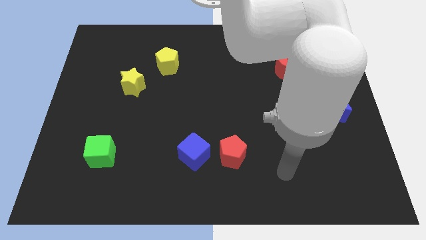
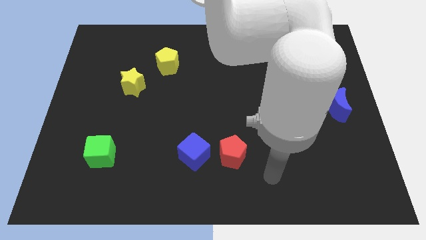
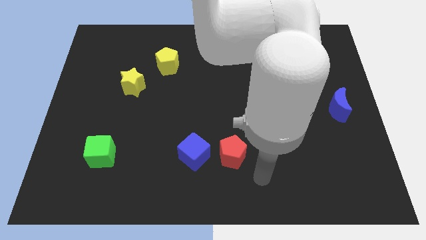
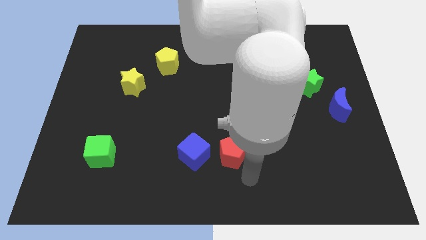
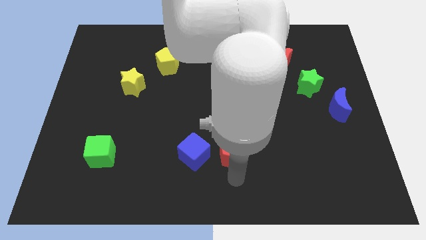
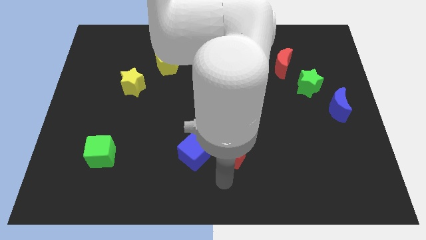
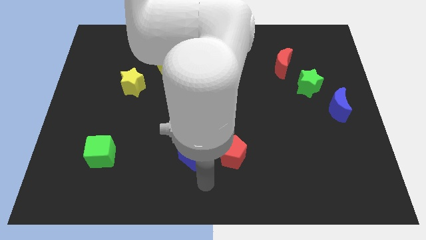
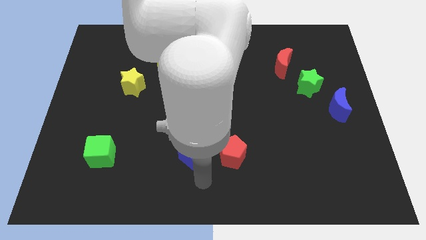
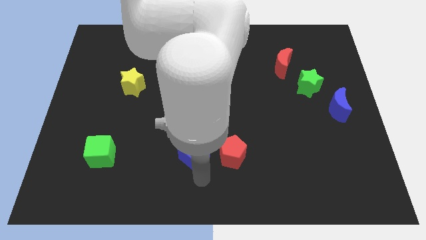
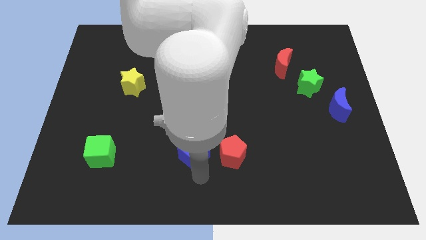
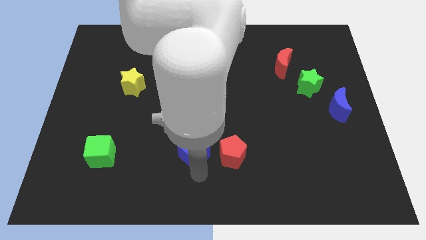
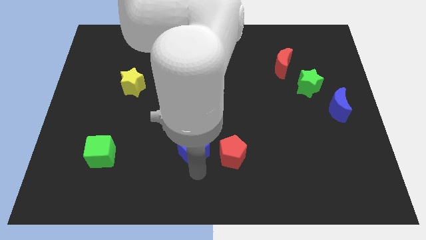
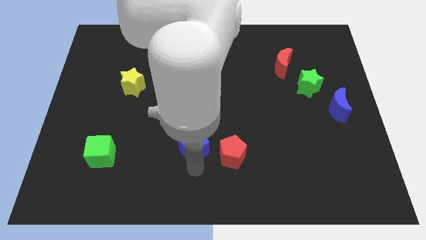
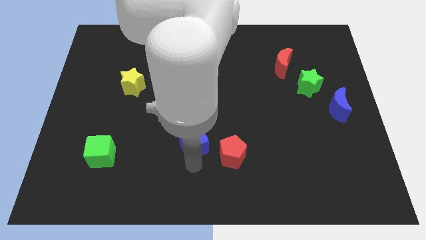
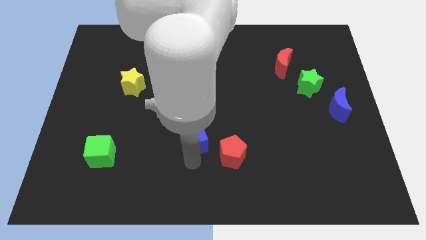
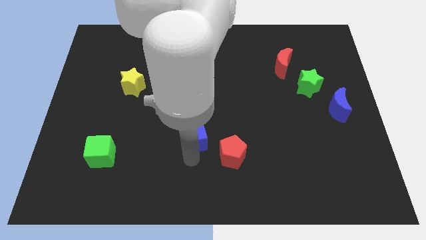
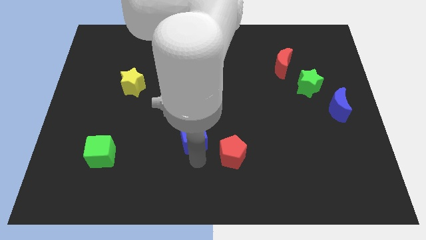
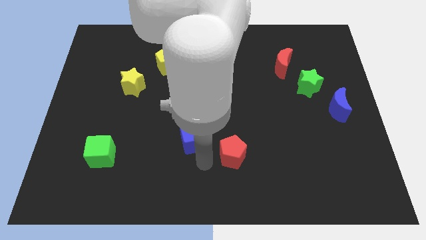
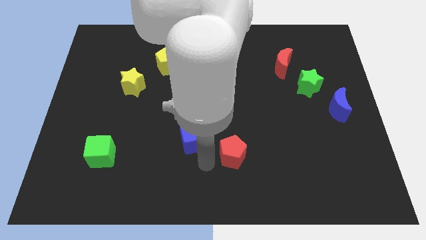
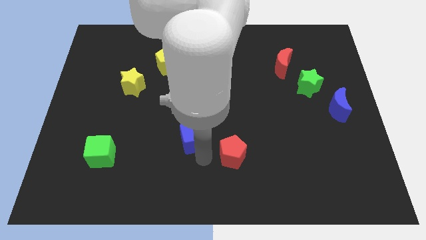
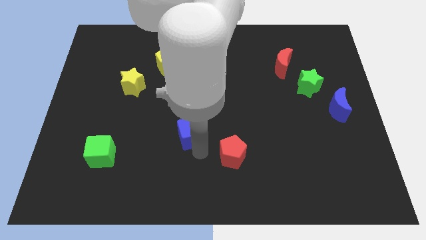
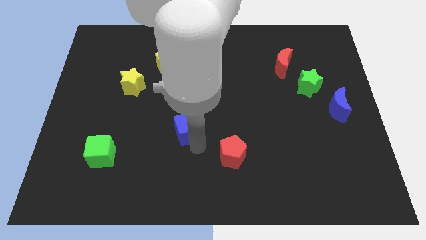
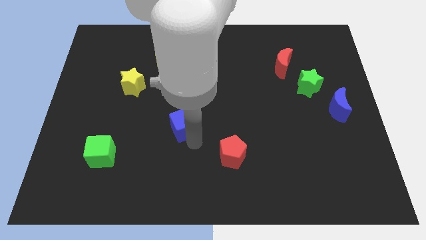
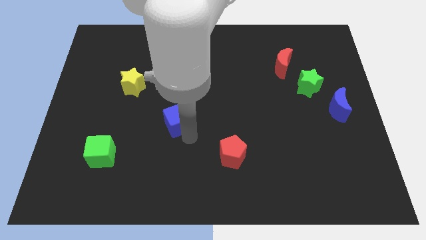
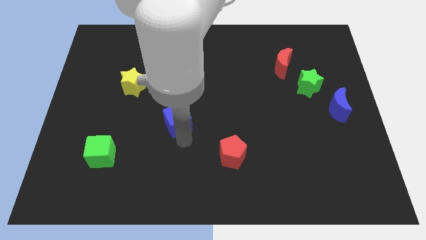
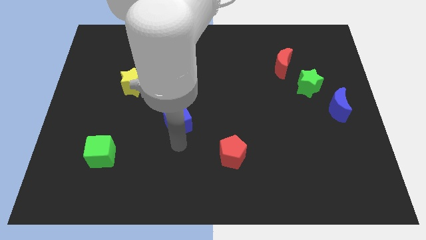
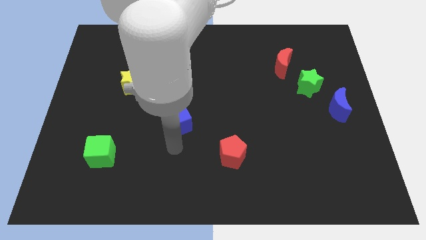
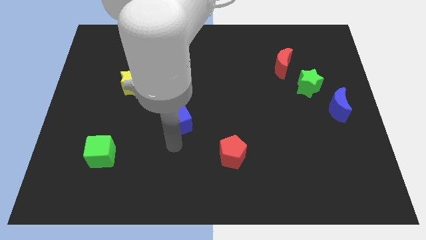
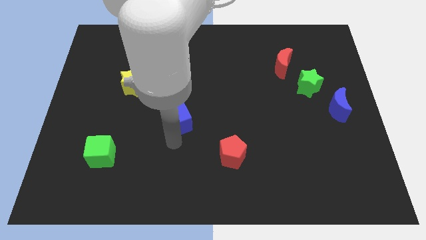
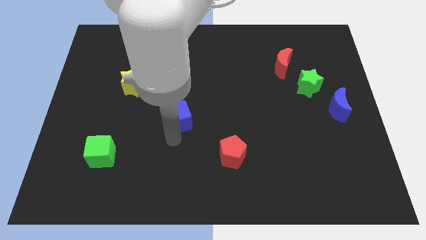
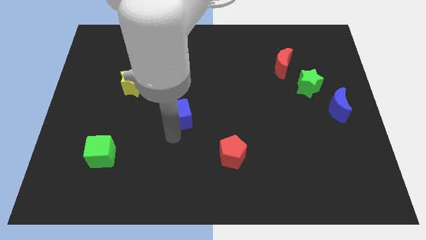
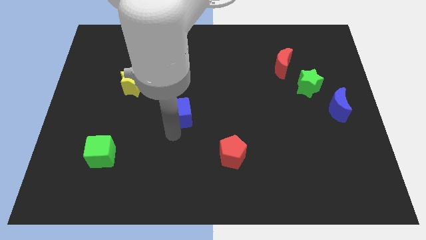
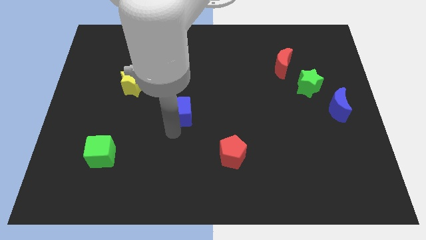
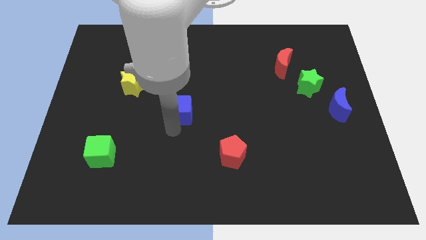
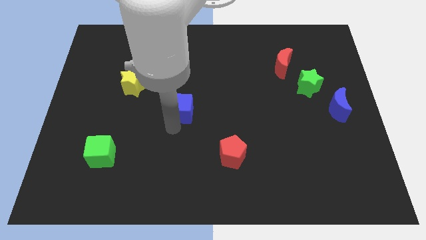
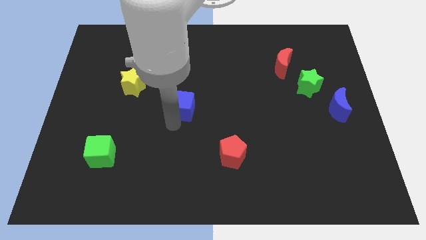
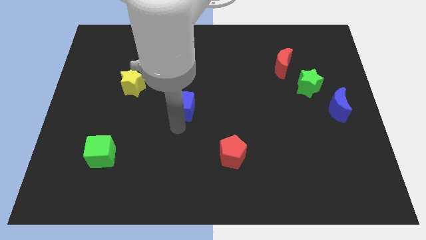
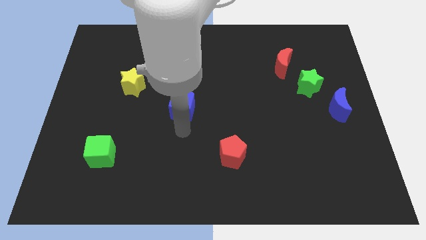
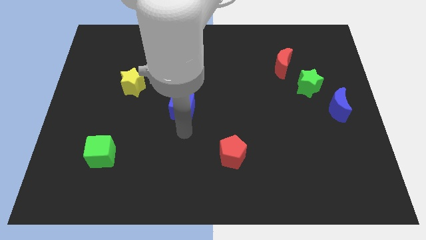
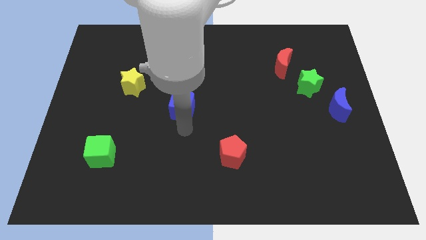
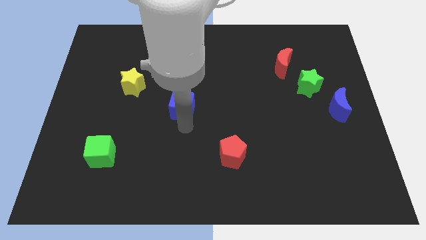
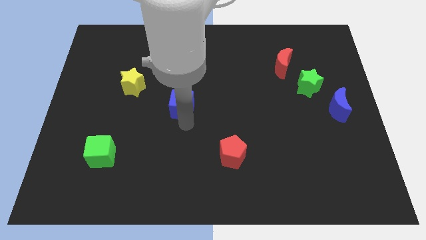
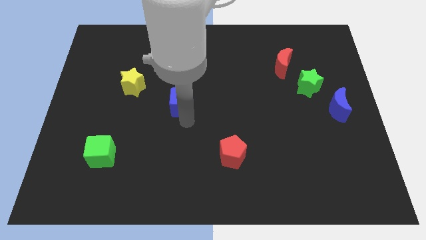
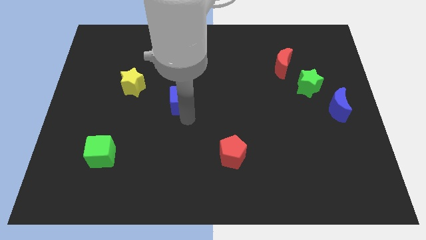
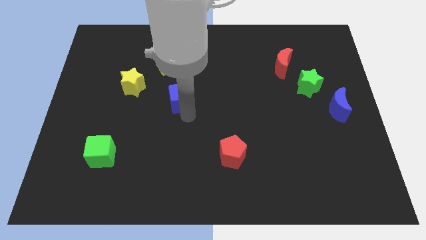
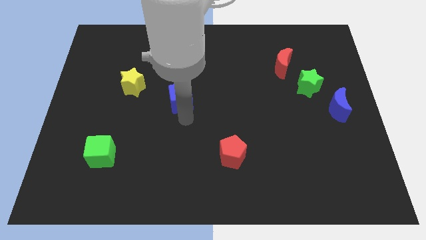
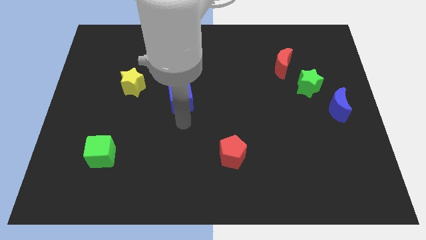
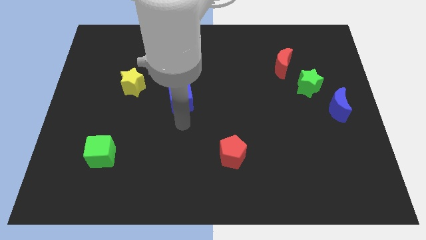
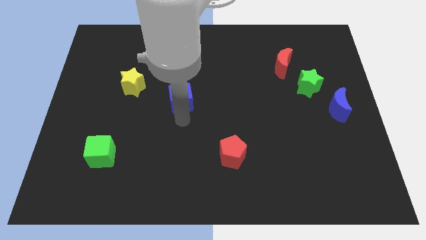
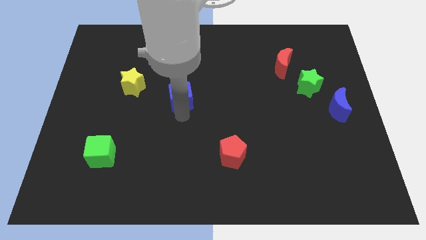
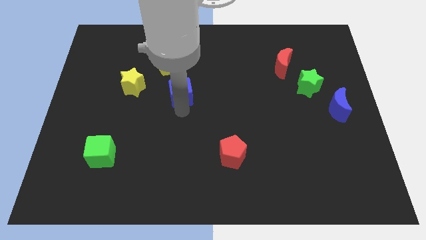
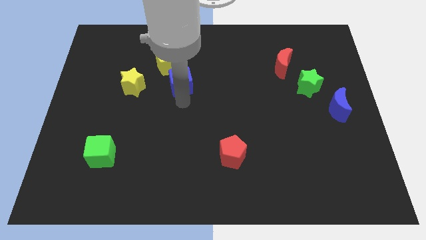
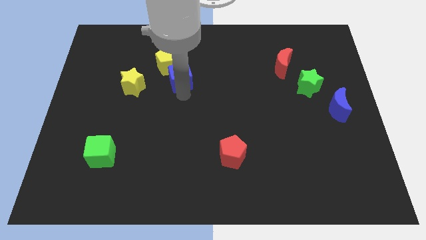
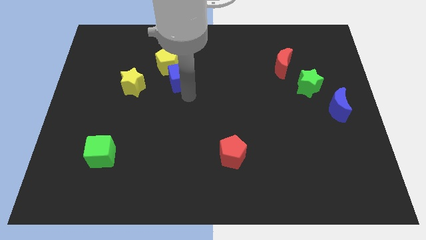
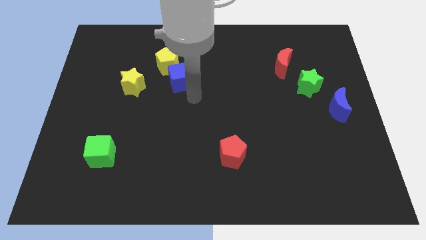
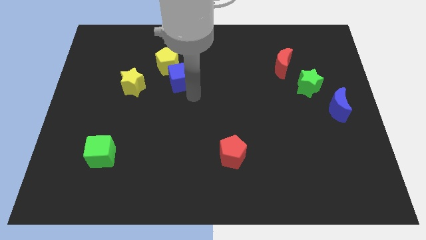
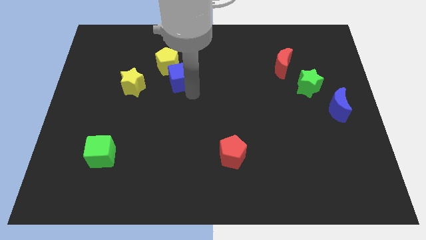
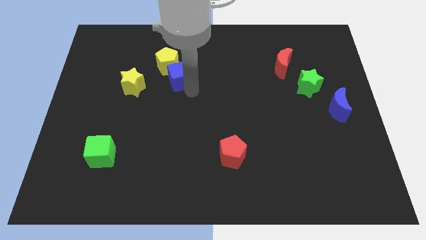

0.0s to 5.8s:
put the blue cube to the yellow pentagon

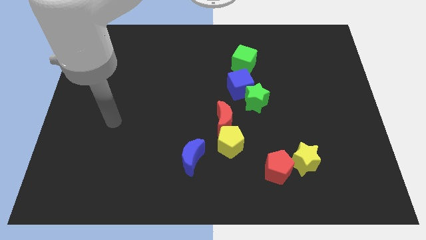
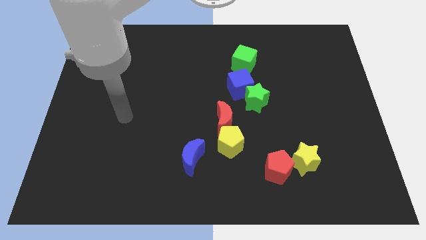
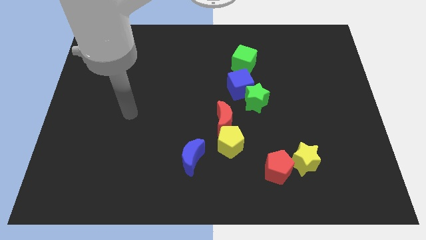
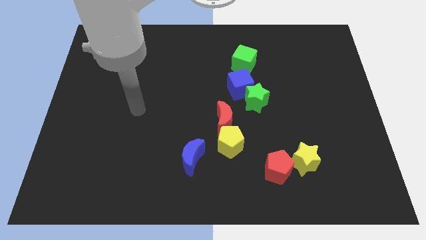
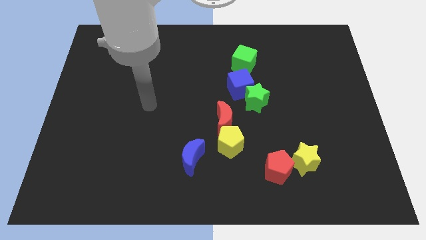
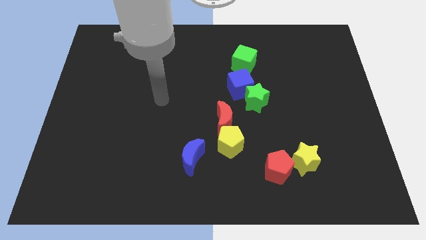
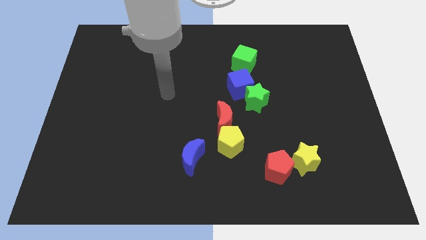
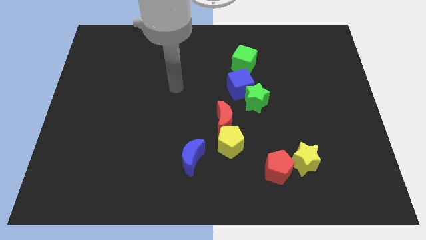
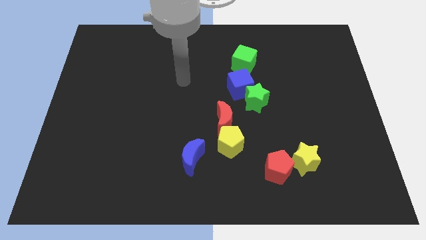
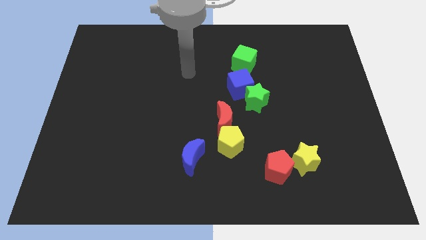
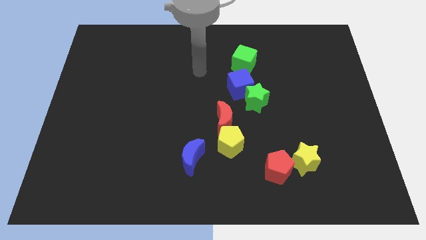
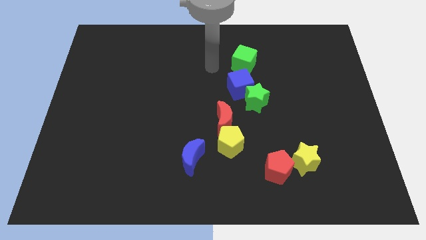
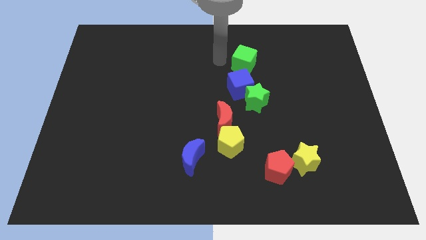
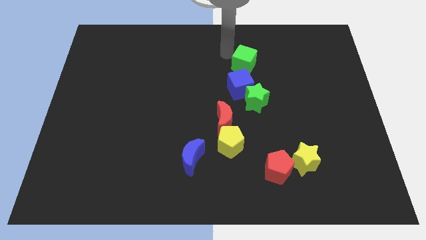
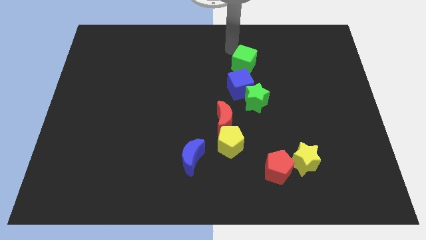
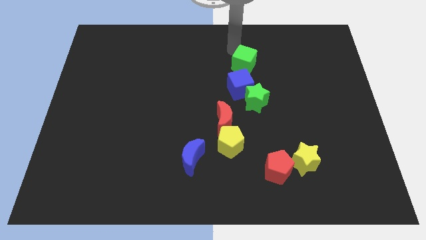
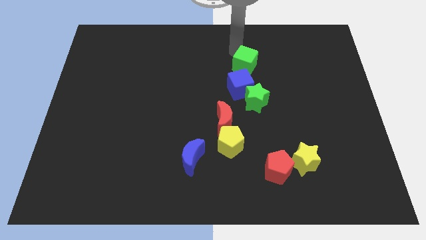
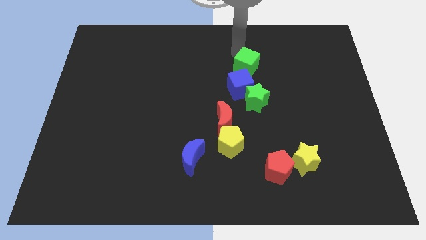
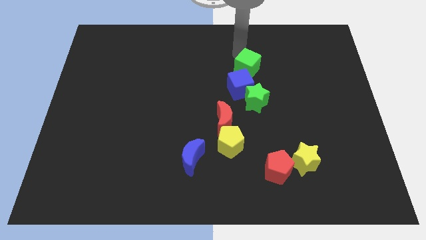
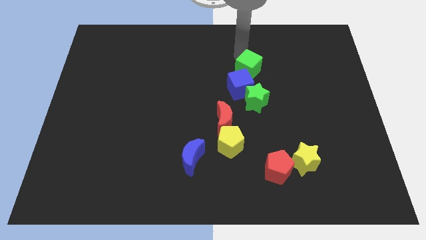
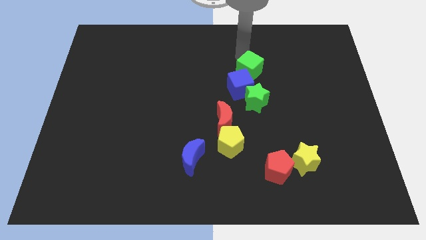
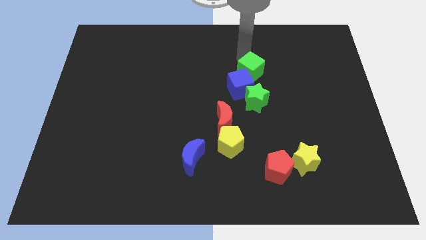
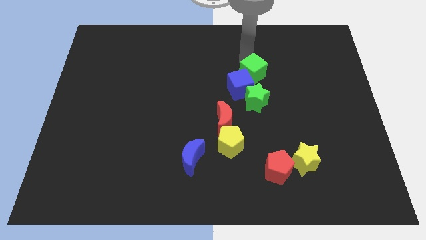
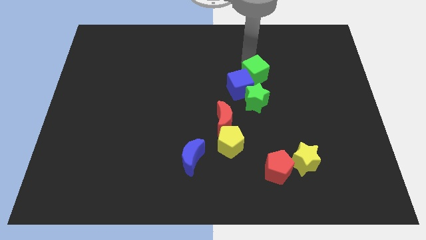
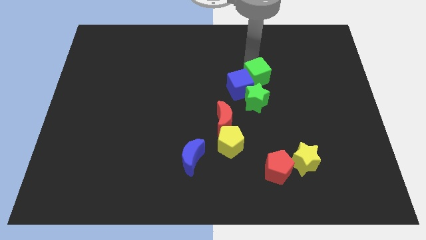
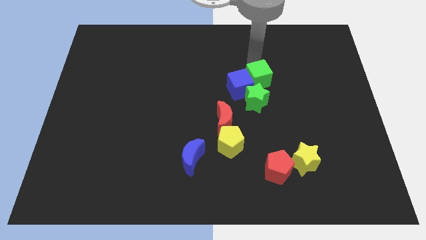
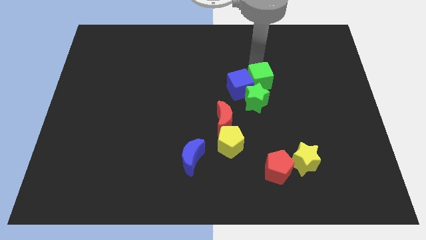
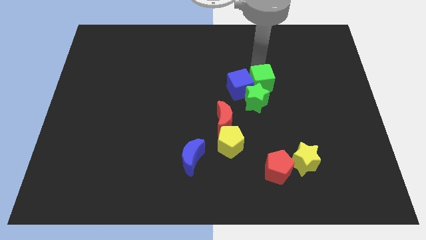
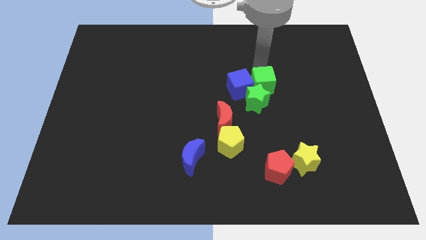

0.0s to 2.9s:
push the green cube next to the green star
